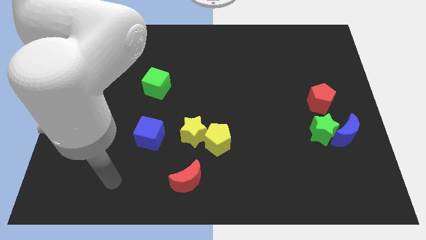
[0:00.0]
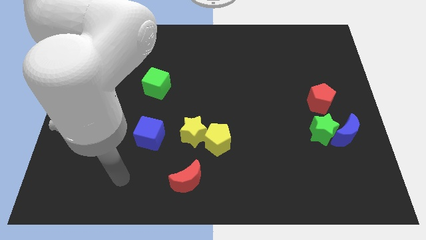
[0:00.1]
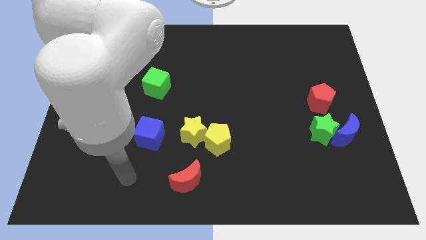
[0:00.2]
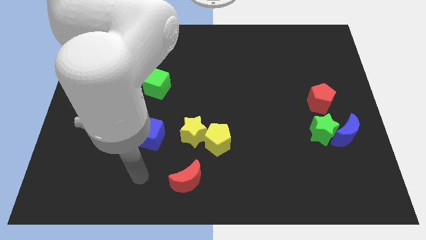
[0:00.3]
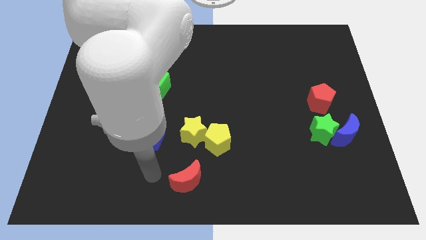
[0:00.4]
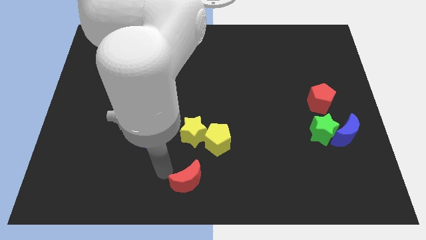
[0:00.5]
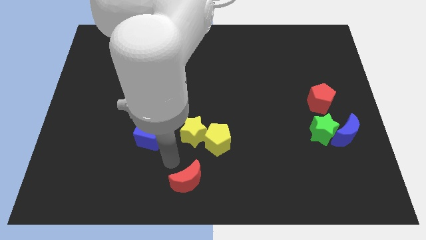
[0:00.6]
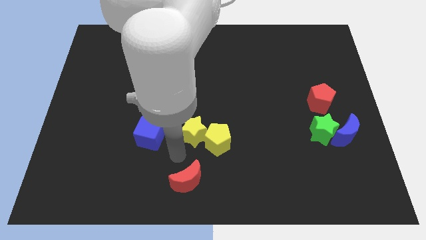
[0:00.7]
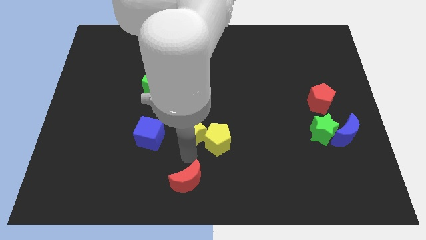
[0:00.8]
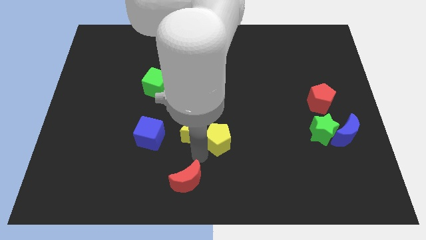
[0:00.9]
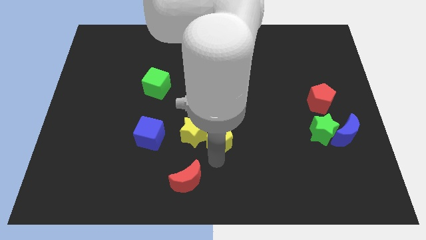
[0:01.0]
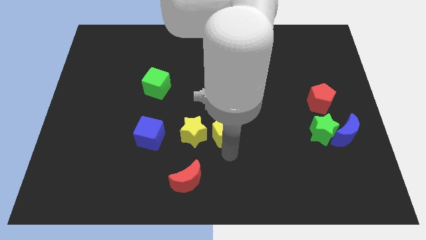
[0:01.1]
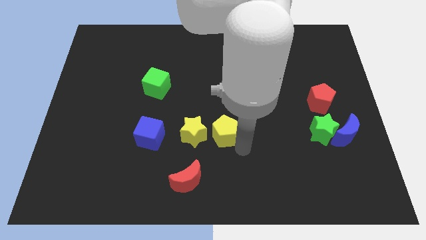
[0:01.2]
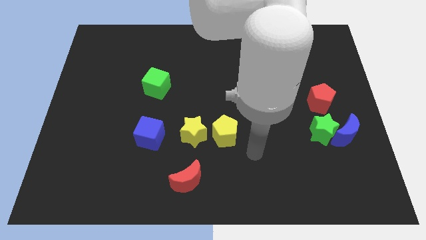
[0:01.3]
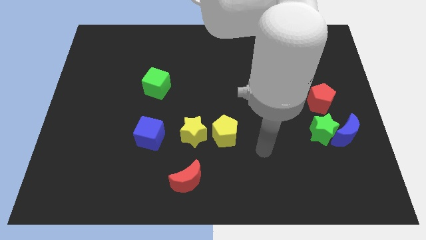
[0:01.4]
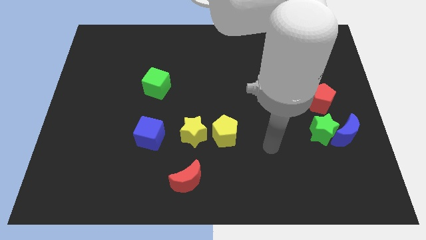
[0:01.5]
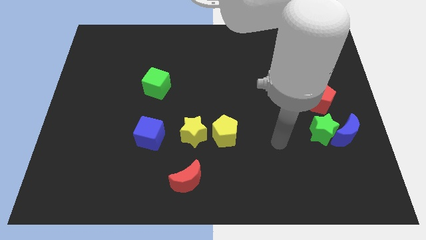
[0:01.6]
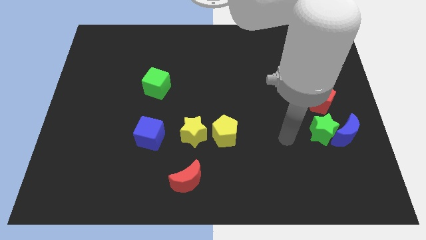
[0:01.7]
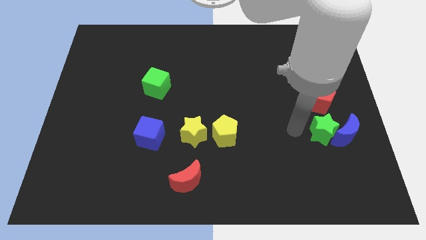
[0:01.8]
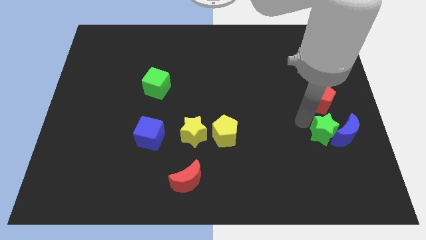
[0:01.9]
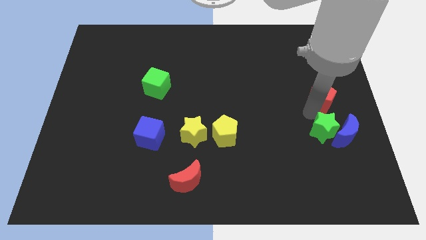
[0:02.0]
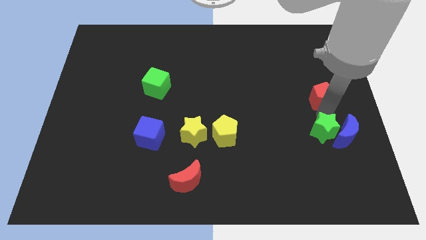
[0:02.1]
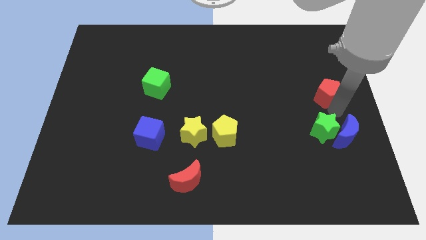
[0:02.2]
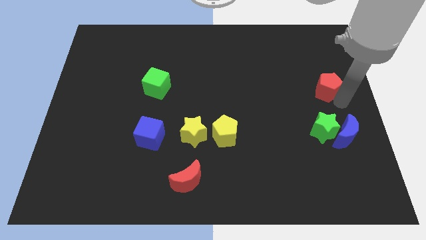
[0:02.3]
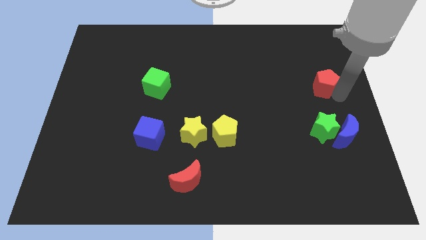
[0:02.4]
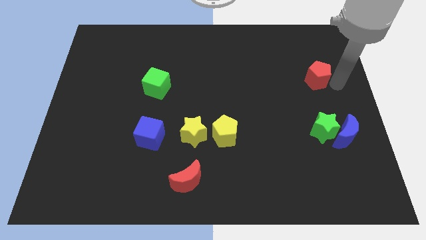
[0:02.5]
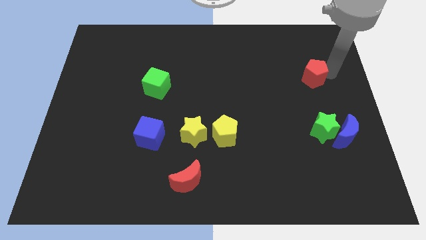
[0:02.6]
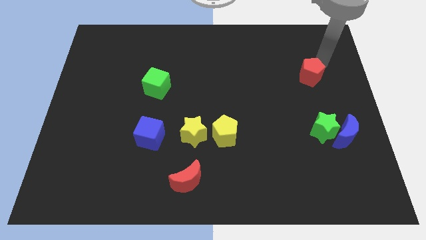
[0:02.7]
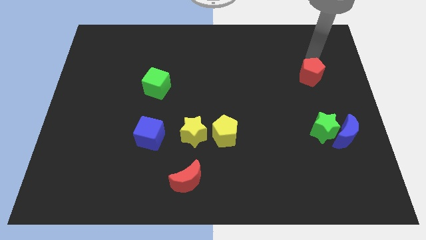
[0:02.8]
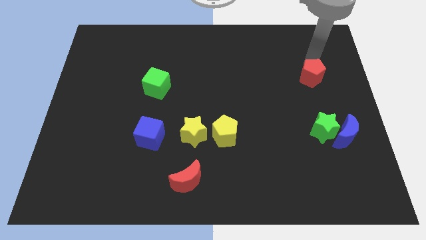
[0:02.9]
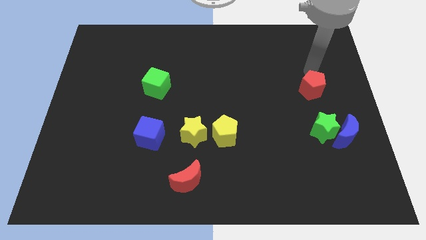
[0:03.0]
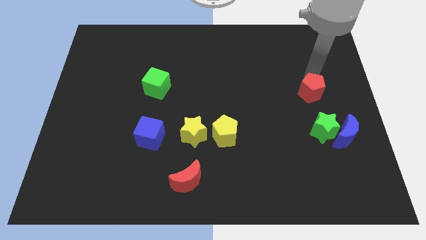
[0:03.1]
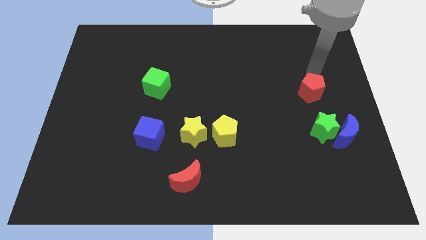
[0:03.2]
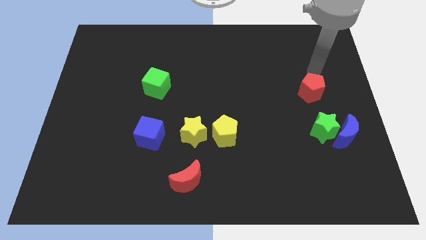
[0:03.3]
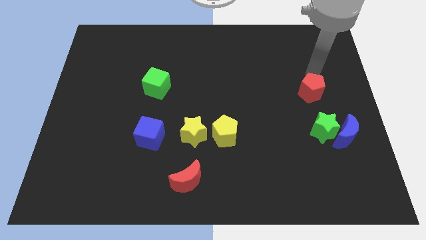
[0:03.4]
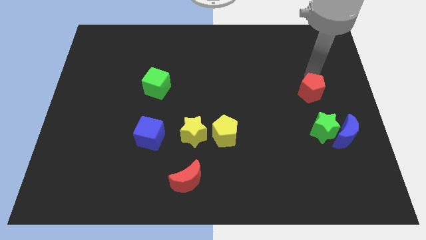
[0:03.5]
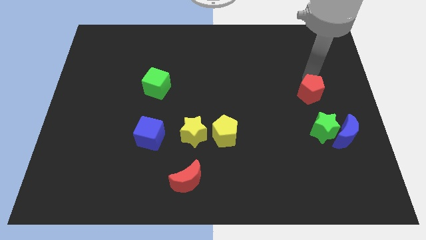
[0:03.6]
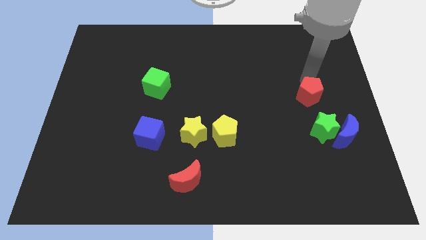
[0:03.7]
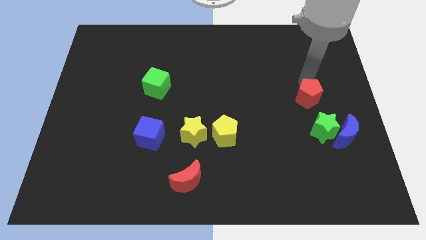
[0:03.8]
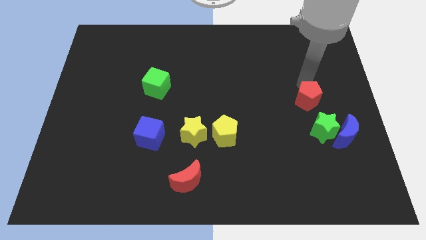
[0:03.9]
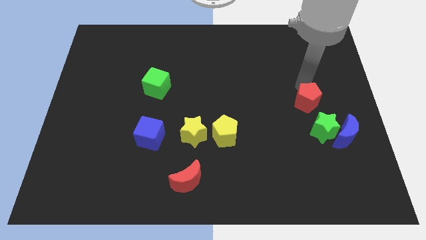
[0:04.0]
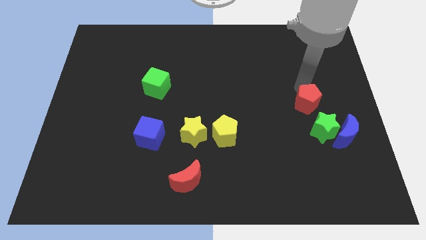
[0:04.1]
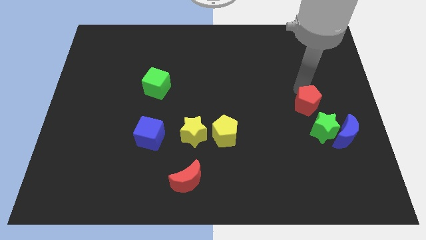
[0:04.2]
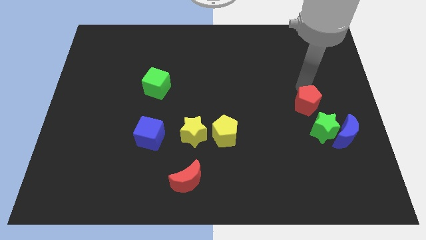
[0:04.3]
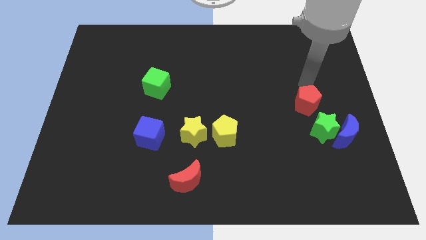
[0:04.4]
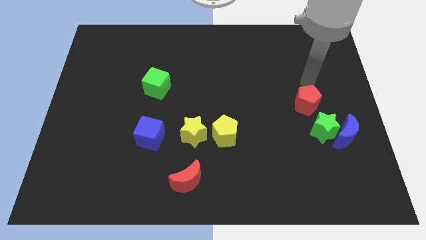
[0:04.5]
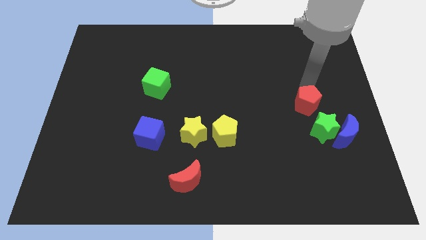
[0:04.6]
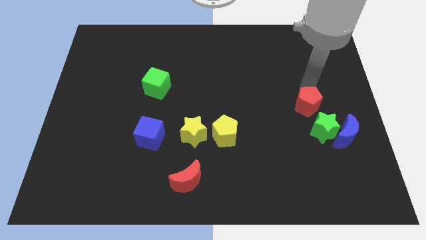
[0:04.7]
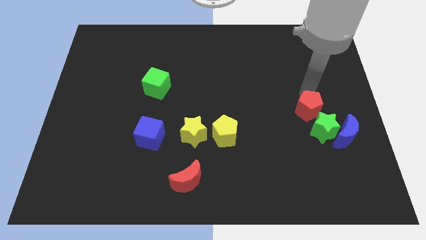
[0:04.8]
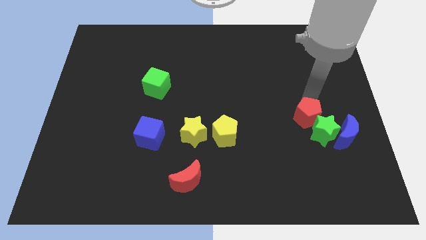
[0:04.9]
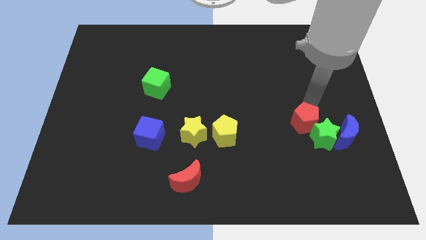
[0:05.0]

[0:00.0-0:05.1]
push the red pentagon slightly down and left diagonally

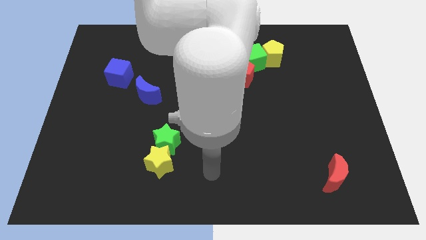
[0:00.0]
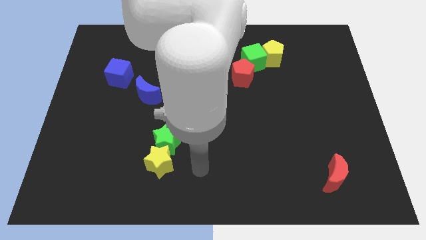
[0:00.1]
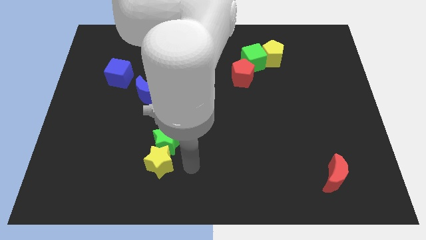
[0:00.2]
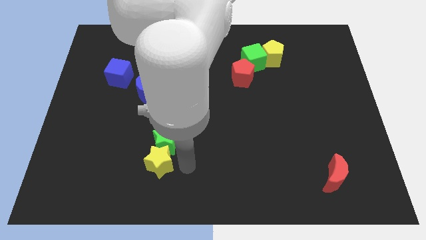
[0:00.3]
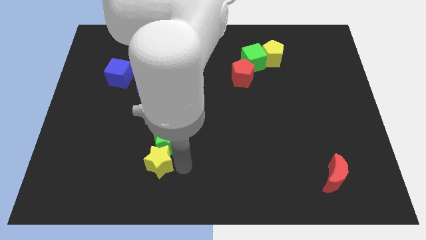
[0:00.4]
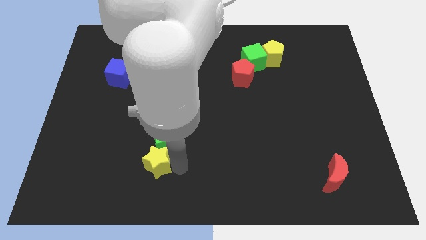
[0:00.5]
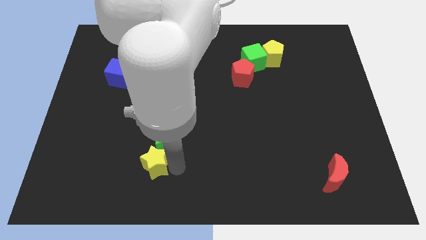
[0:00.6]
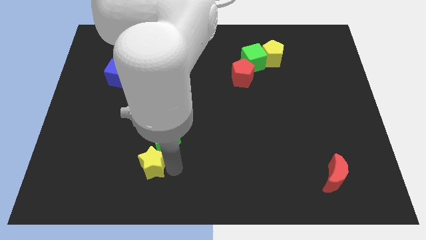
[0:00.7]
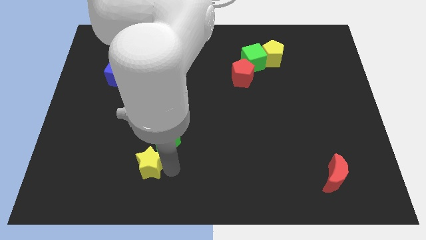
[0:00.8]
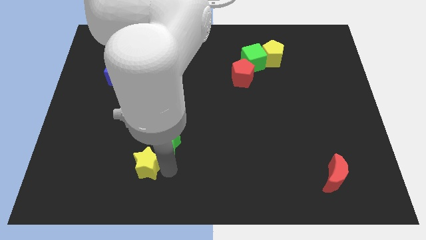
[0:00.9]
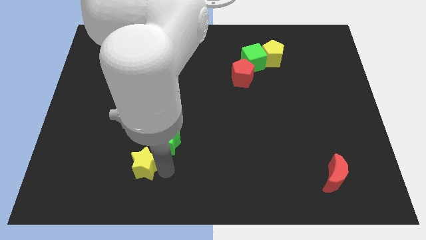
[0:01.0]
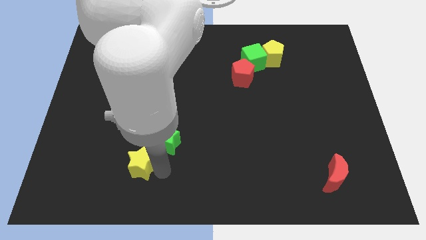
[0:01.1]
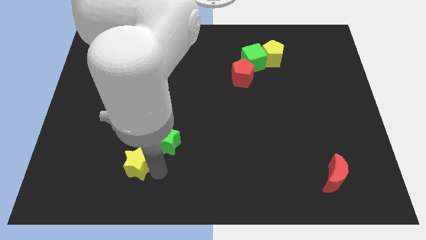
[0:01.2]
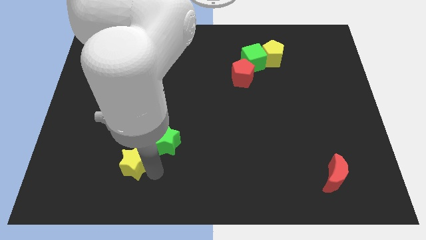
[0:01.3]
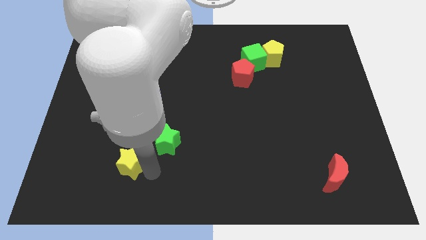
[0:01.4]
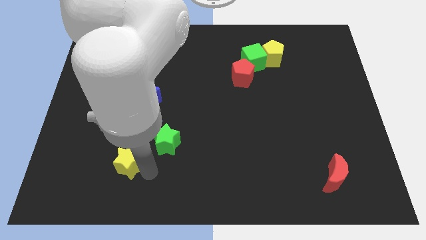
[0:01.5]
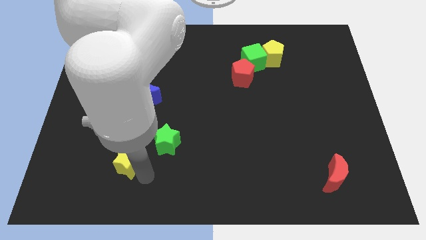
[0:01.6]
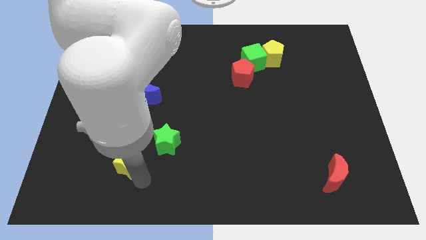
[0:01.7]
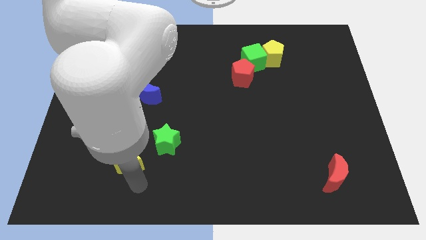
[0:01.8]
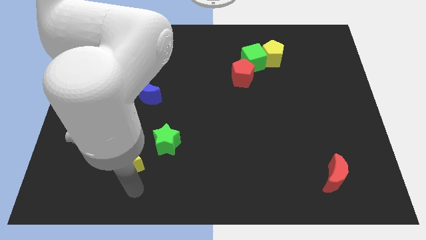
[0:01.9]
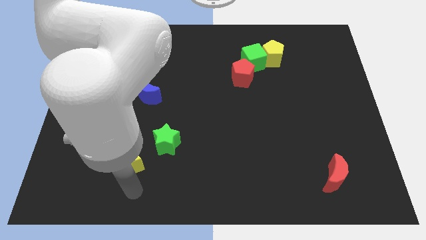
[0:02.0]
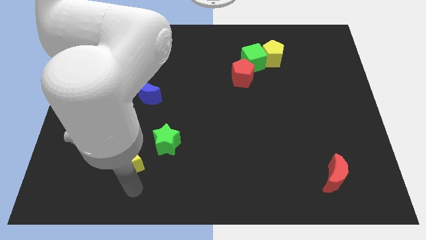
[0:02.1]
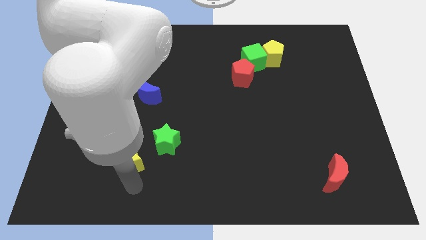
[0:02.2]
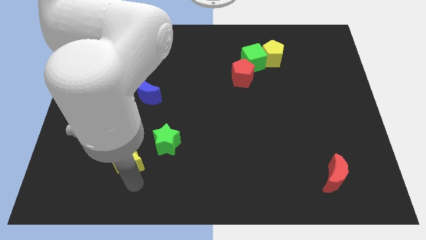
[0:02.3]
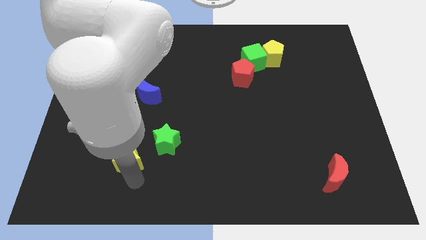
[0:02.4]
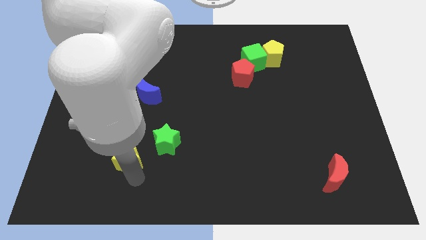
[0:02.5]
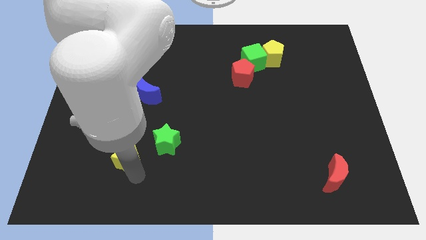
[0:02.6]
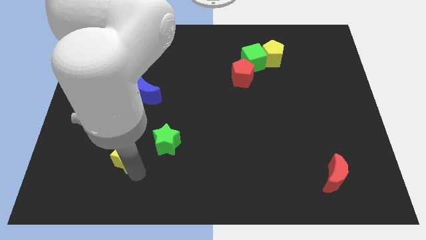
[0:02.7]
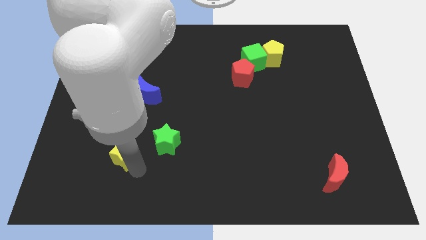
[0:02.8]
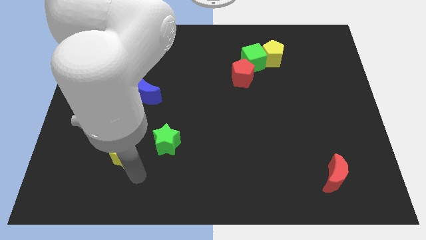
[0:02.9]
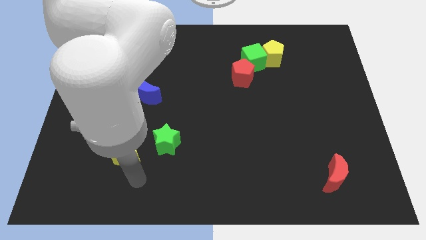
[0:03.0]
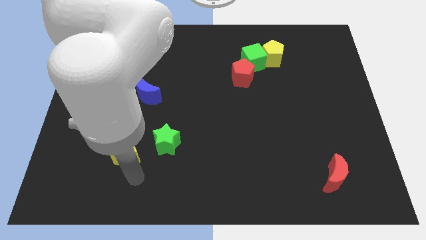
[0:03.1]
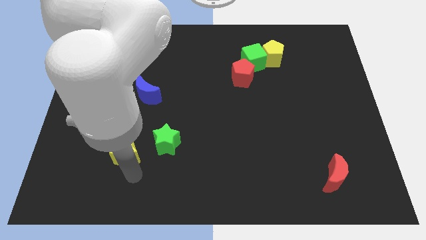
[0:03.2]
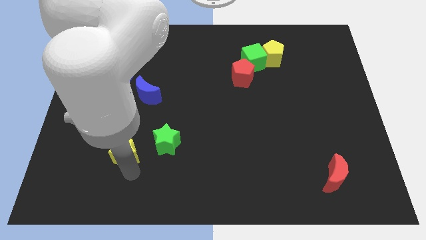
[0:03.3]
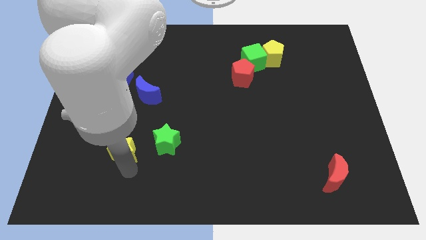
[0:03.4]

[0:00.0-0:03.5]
slightly slide the yellow star upwards and to the left diagonally
